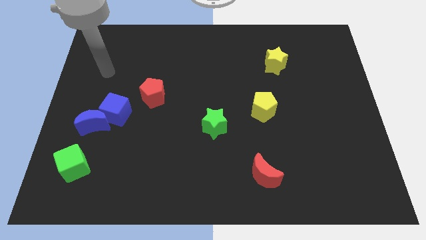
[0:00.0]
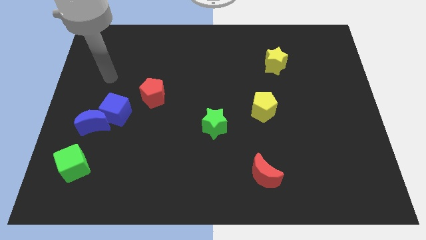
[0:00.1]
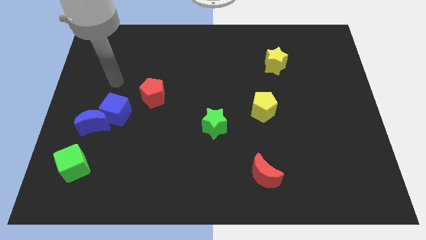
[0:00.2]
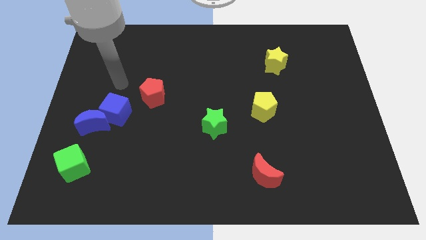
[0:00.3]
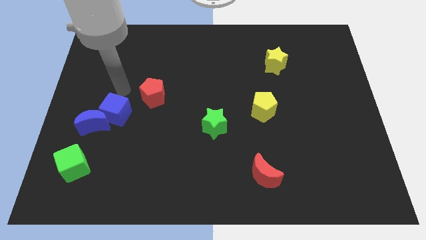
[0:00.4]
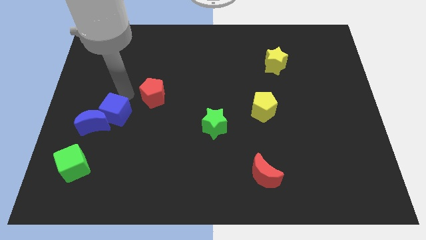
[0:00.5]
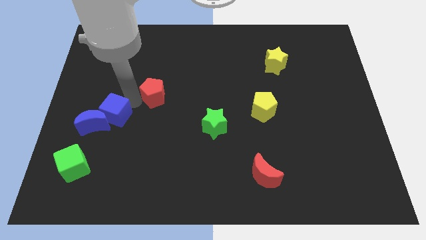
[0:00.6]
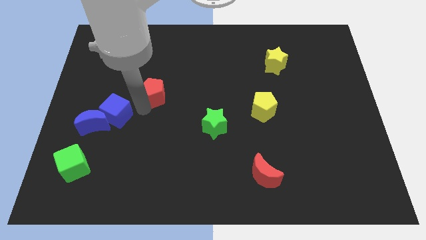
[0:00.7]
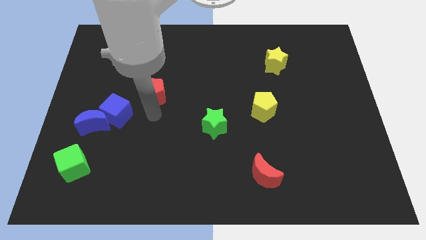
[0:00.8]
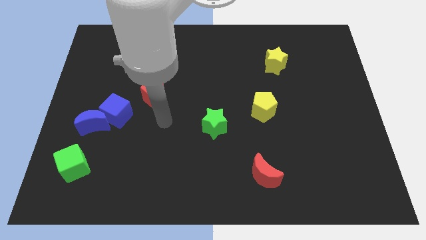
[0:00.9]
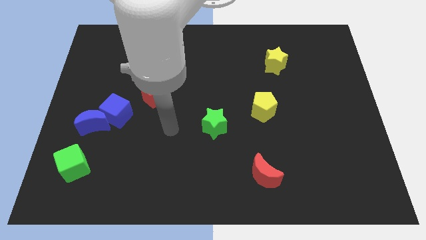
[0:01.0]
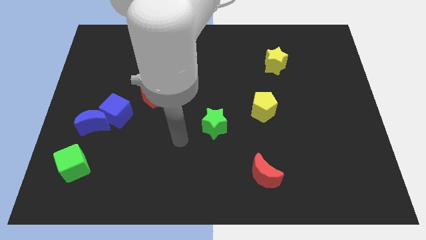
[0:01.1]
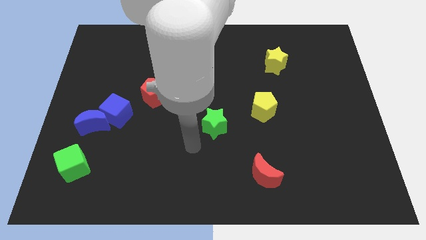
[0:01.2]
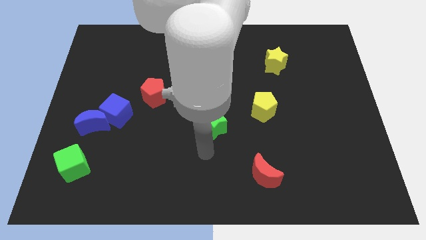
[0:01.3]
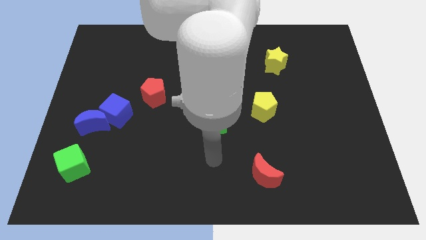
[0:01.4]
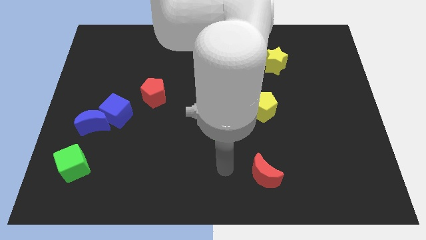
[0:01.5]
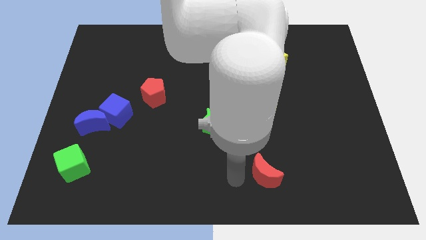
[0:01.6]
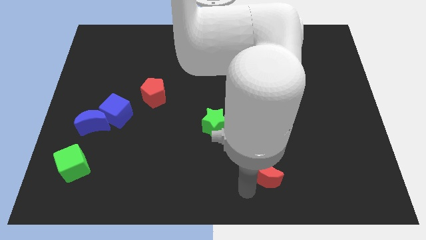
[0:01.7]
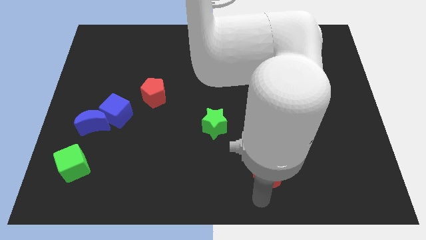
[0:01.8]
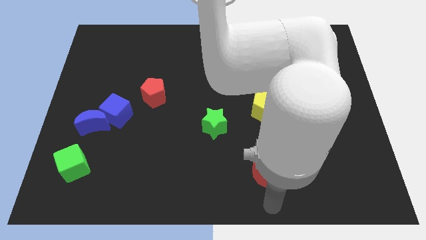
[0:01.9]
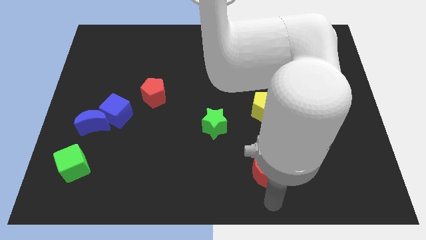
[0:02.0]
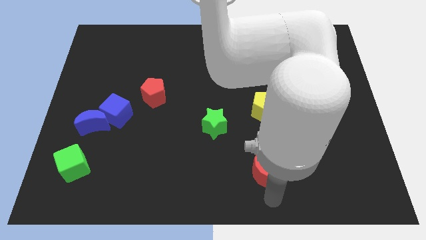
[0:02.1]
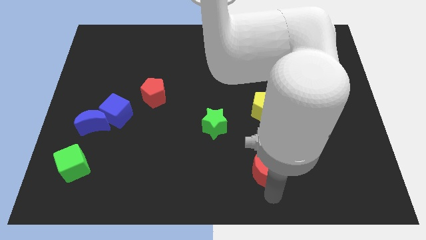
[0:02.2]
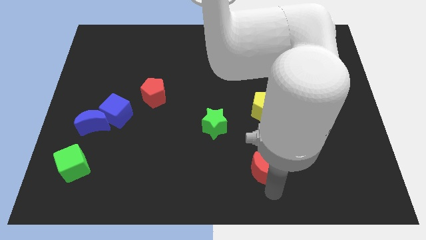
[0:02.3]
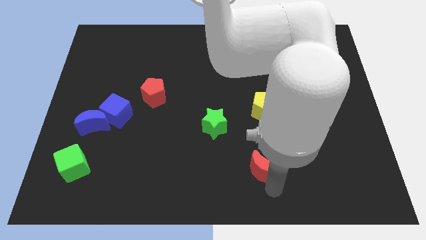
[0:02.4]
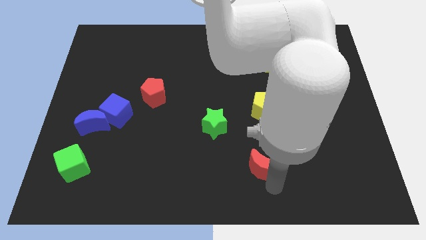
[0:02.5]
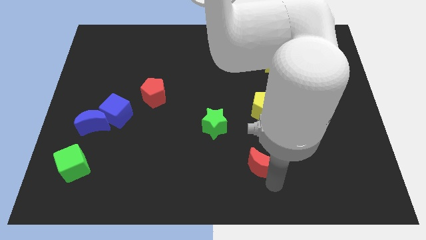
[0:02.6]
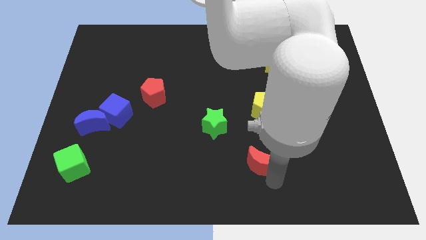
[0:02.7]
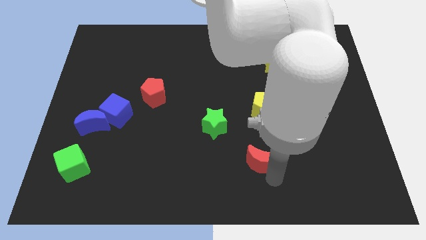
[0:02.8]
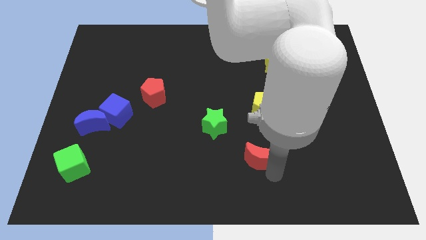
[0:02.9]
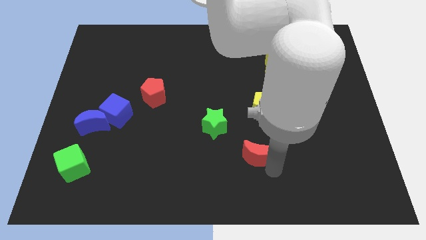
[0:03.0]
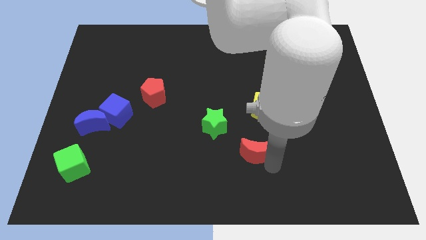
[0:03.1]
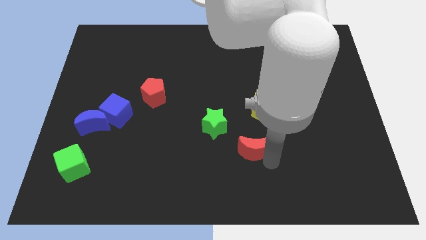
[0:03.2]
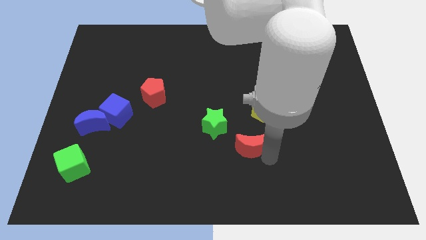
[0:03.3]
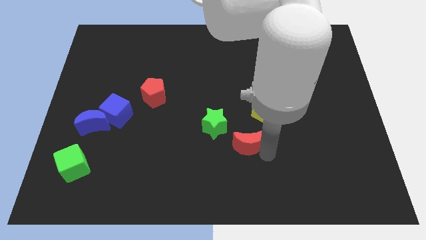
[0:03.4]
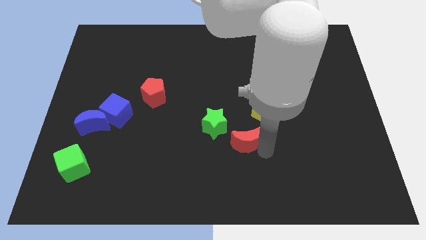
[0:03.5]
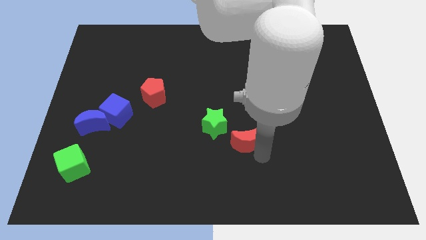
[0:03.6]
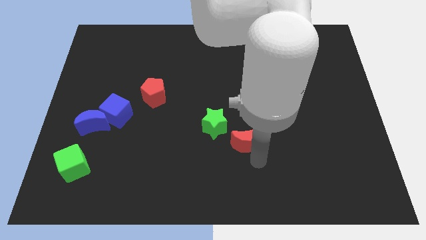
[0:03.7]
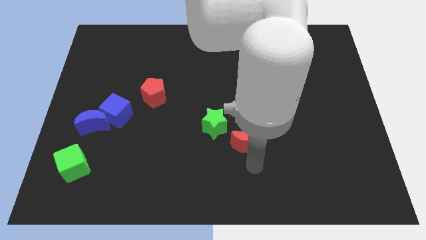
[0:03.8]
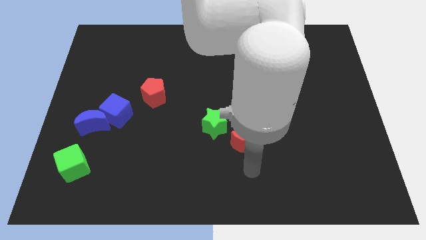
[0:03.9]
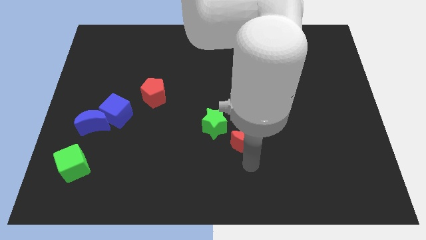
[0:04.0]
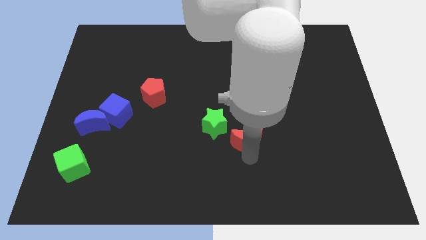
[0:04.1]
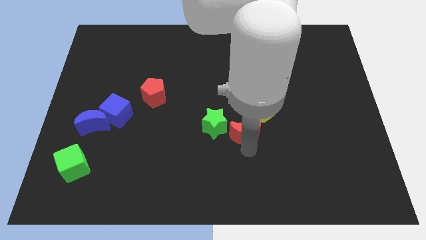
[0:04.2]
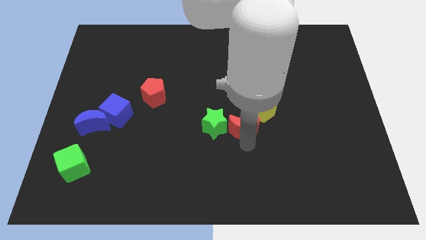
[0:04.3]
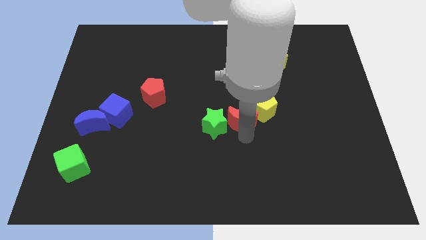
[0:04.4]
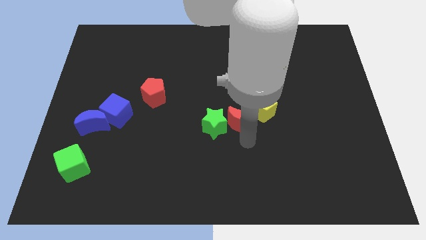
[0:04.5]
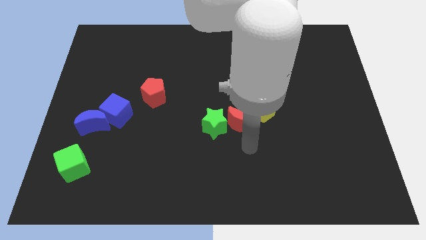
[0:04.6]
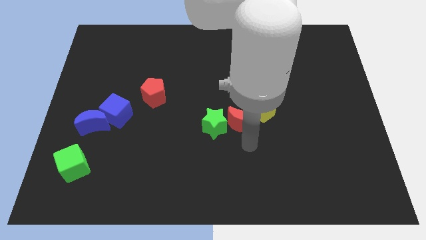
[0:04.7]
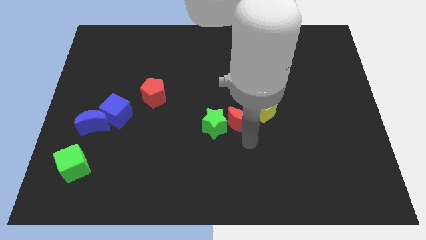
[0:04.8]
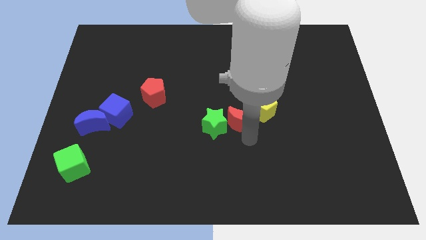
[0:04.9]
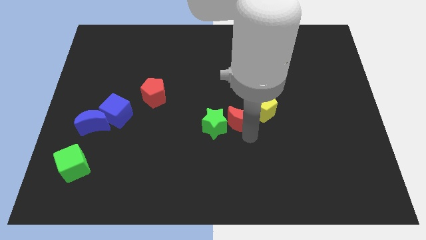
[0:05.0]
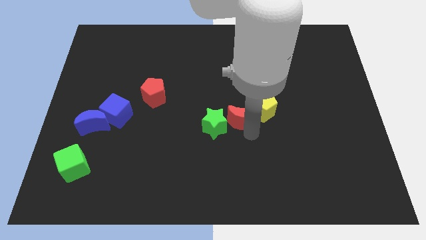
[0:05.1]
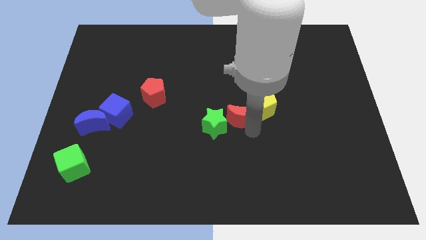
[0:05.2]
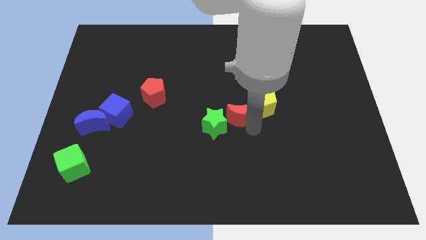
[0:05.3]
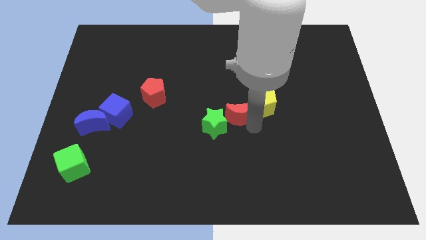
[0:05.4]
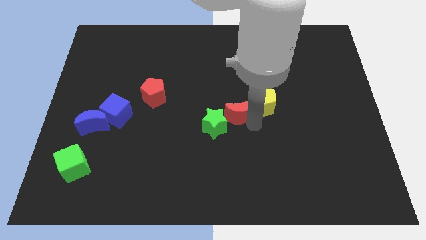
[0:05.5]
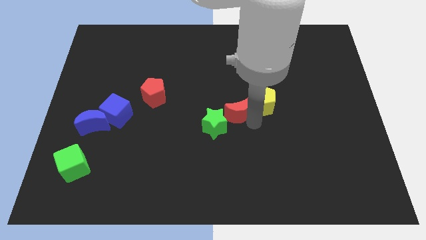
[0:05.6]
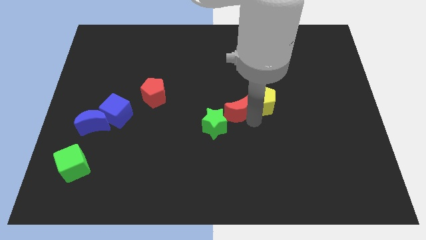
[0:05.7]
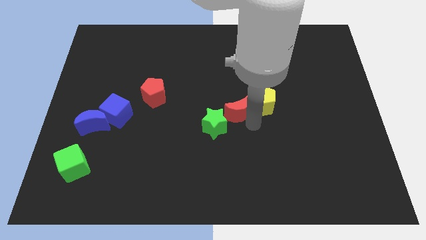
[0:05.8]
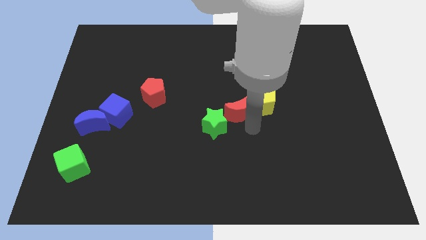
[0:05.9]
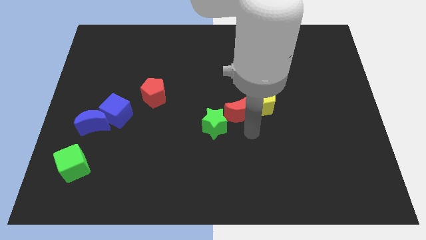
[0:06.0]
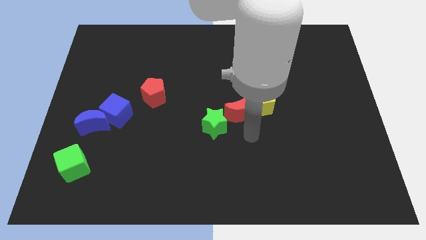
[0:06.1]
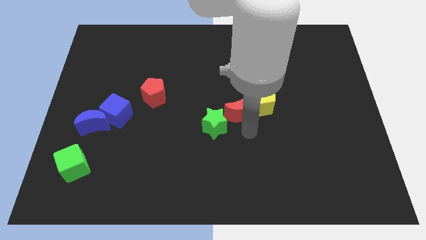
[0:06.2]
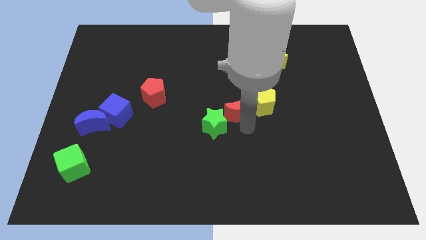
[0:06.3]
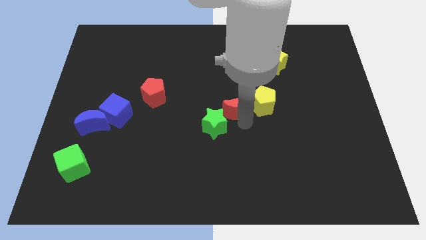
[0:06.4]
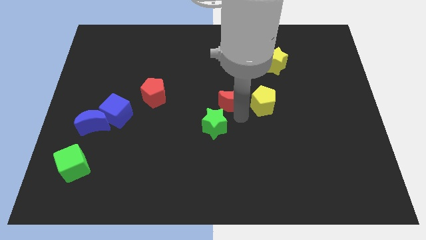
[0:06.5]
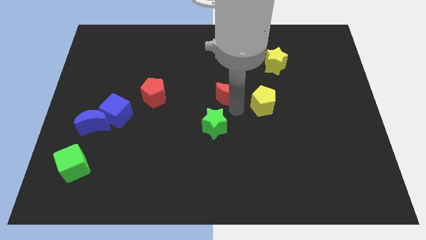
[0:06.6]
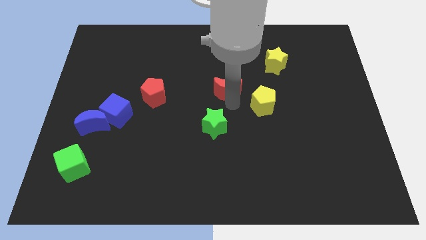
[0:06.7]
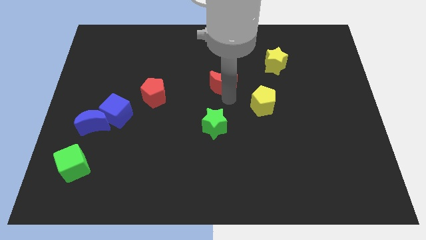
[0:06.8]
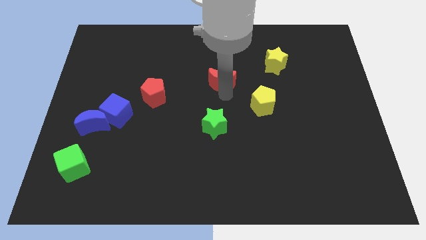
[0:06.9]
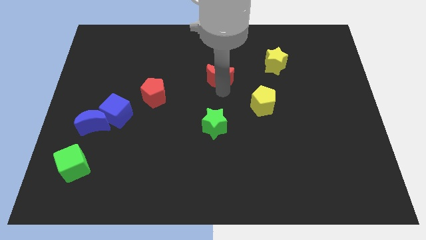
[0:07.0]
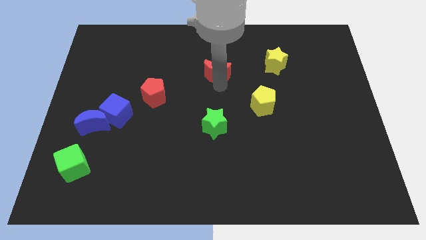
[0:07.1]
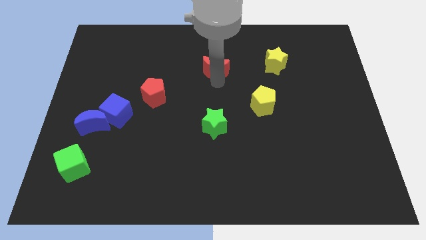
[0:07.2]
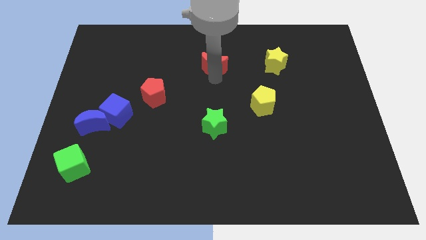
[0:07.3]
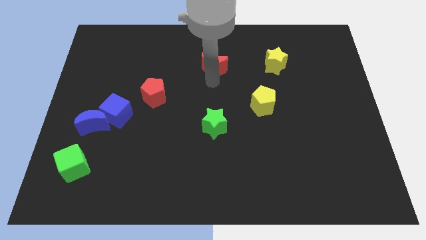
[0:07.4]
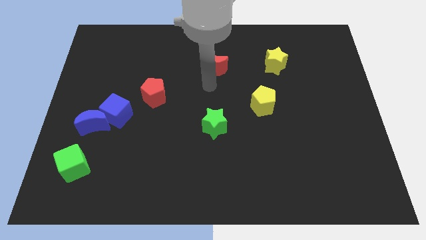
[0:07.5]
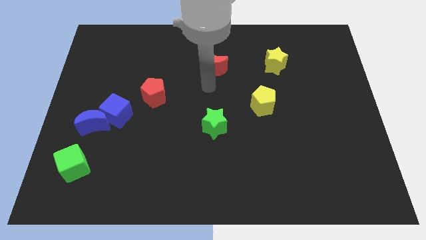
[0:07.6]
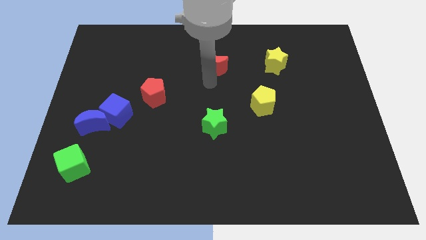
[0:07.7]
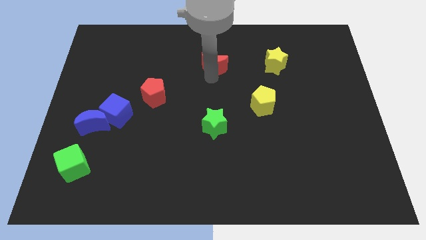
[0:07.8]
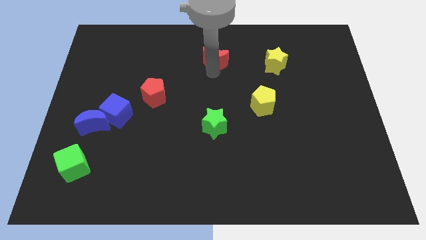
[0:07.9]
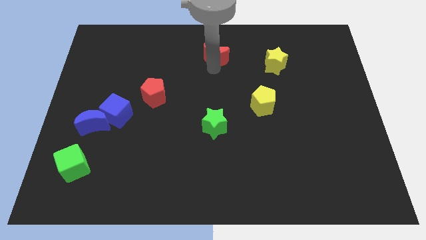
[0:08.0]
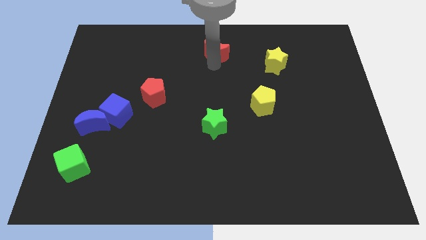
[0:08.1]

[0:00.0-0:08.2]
slide the red moon to the top
